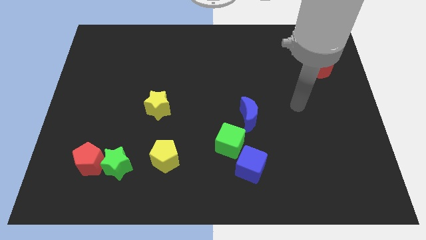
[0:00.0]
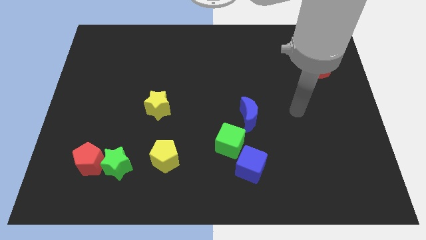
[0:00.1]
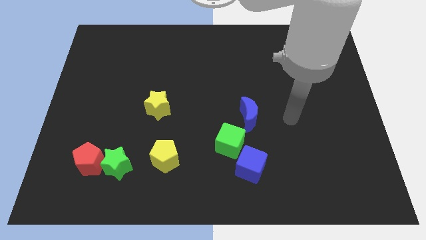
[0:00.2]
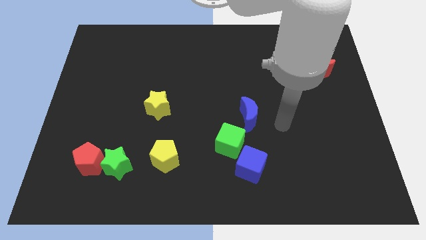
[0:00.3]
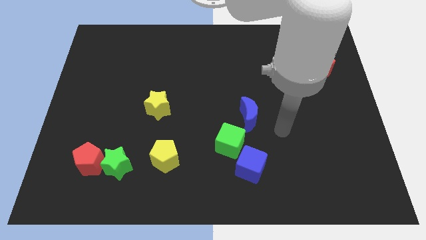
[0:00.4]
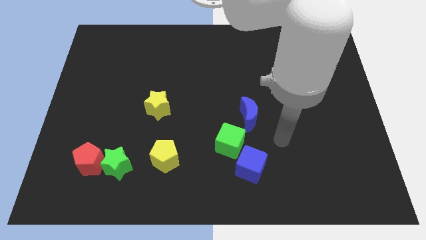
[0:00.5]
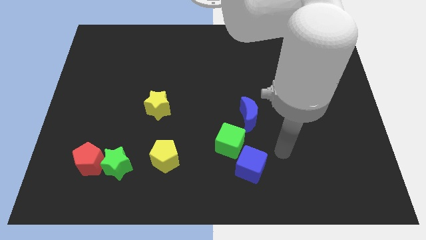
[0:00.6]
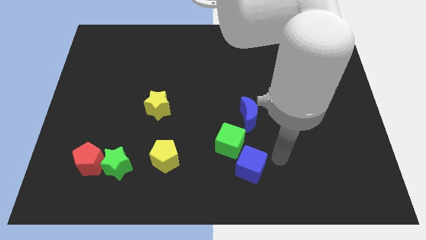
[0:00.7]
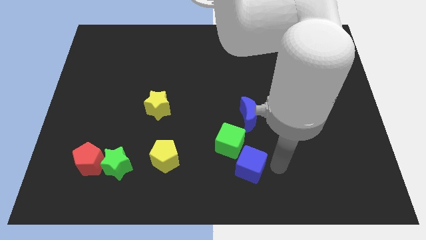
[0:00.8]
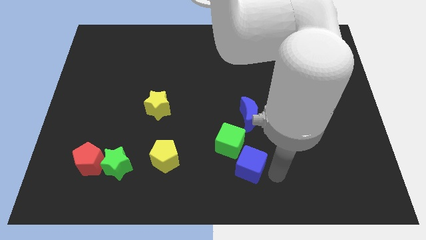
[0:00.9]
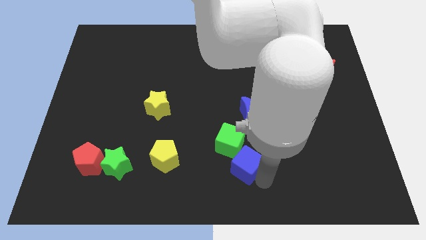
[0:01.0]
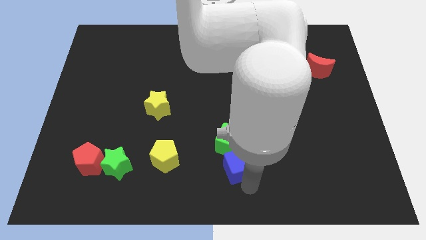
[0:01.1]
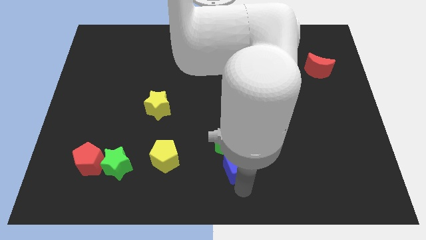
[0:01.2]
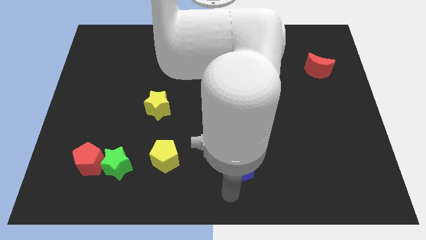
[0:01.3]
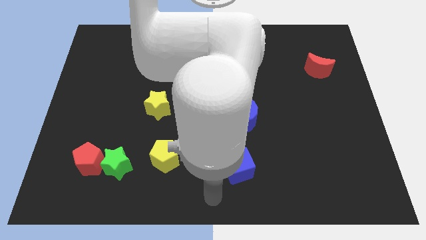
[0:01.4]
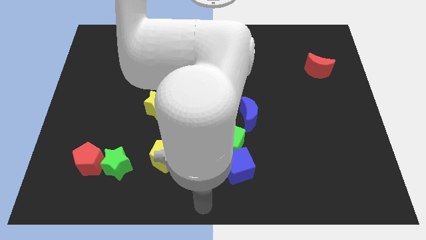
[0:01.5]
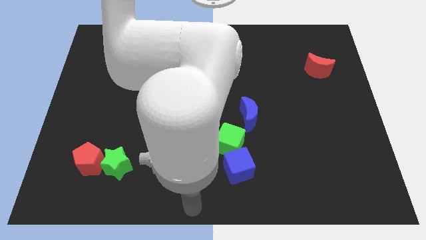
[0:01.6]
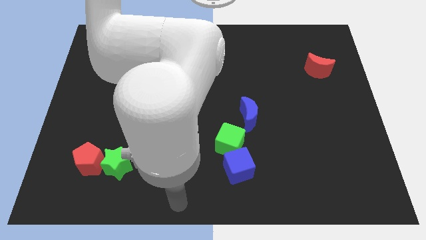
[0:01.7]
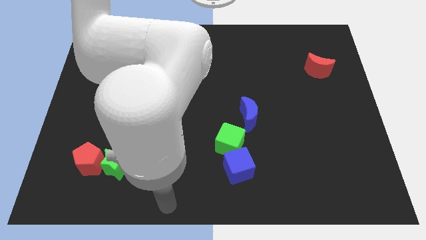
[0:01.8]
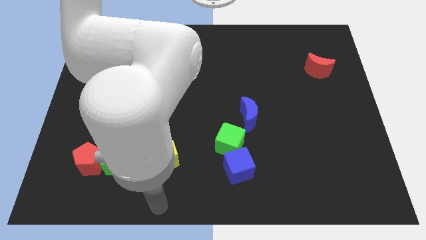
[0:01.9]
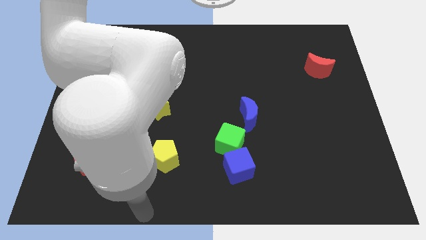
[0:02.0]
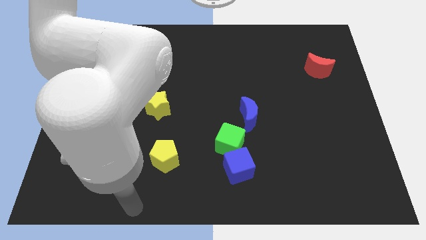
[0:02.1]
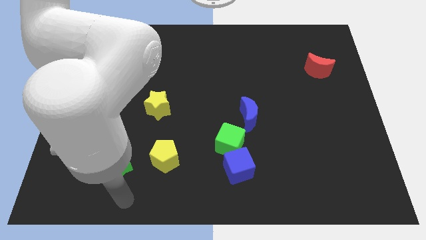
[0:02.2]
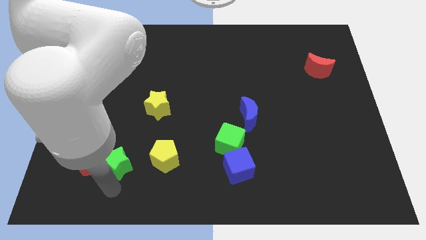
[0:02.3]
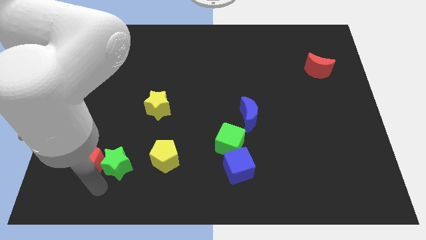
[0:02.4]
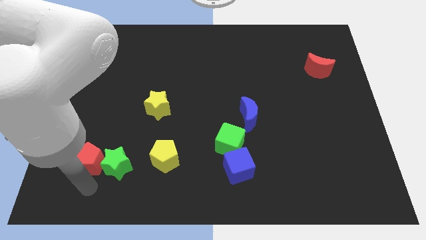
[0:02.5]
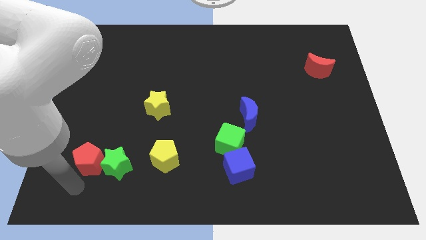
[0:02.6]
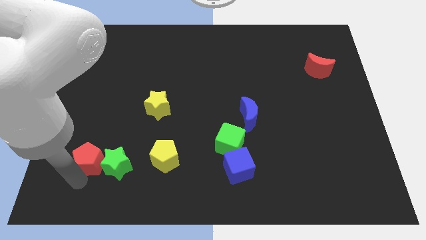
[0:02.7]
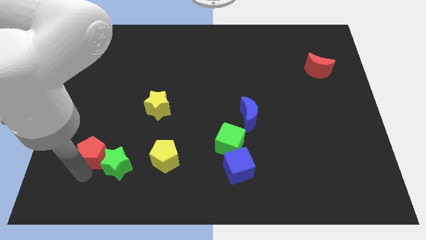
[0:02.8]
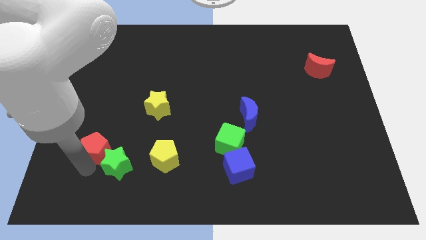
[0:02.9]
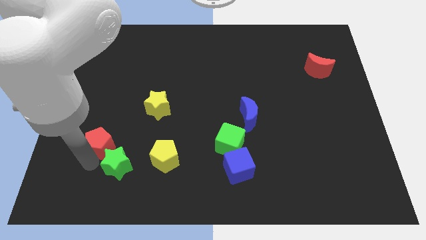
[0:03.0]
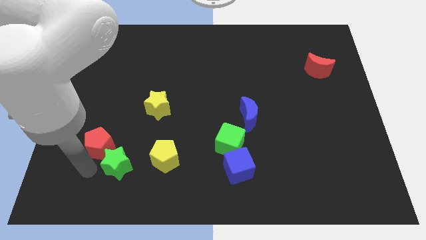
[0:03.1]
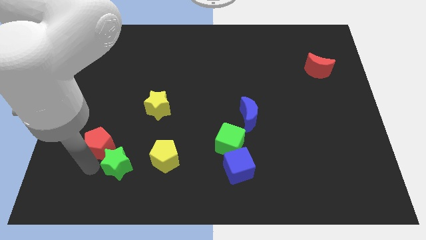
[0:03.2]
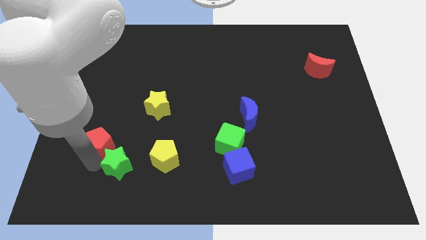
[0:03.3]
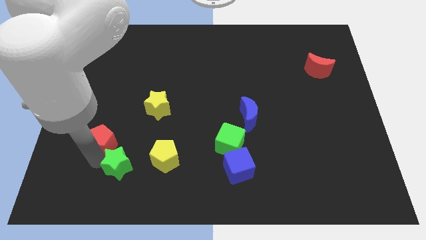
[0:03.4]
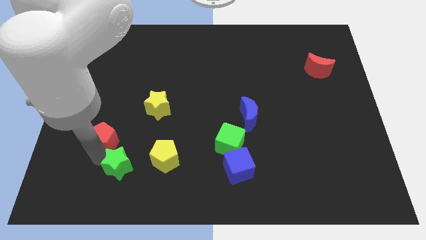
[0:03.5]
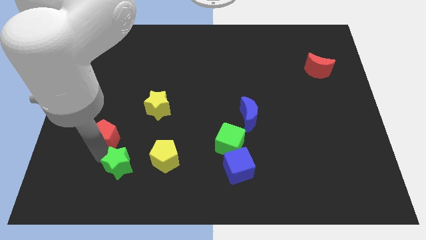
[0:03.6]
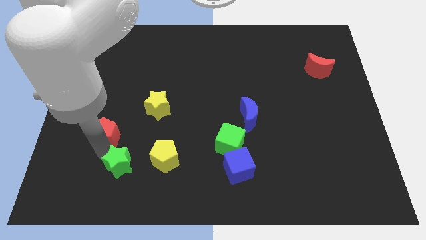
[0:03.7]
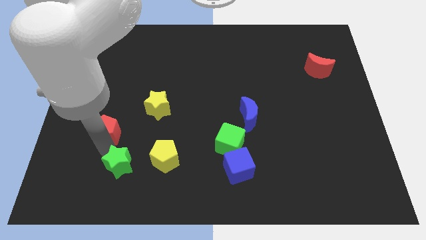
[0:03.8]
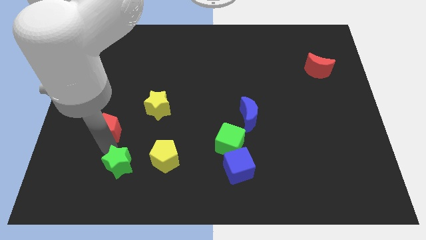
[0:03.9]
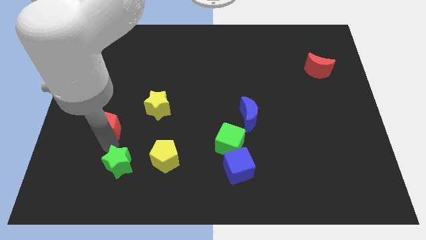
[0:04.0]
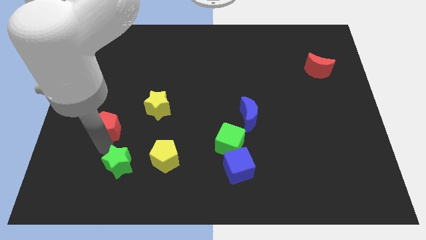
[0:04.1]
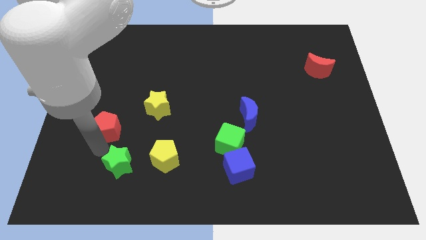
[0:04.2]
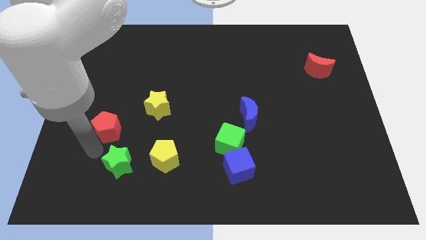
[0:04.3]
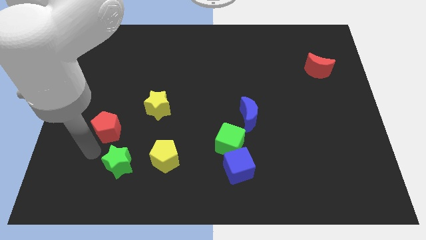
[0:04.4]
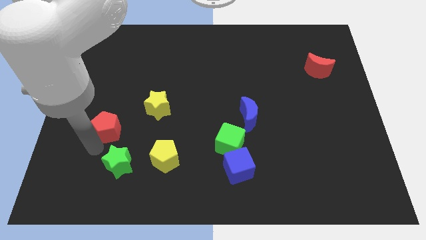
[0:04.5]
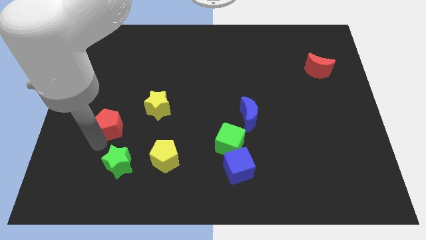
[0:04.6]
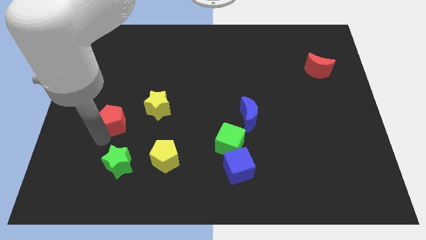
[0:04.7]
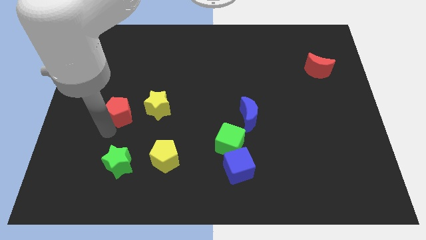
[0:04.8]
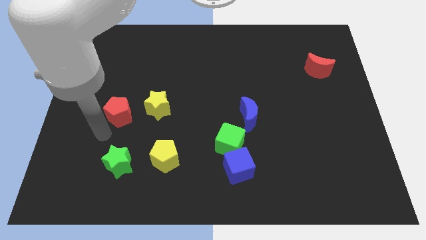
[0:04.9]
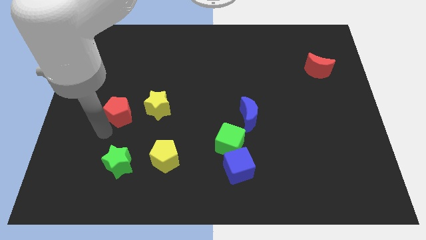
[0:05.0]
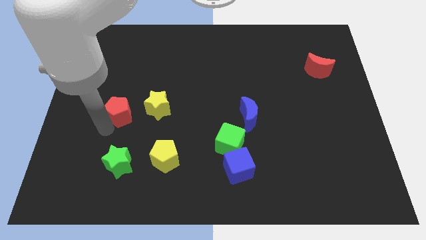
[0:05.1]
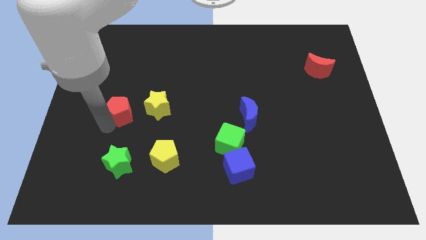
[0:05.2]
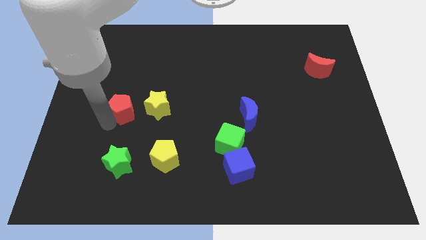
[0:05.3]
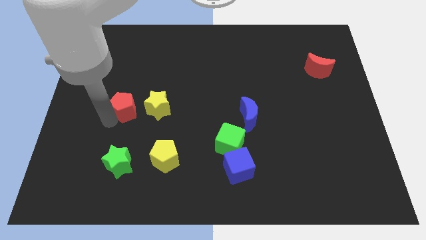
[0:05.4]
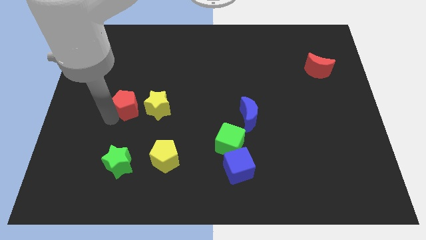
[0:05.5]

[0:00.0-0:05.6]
move the red pentagon to the top left side of the yellow star

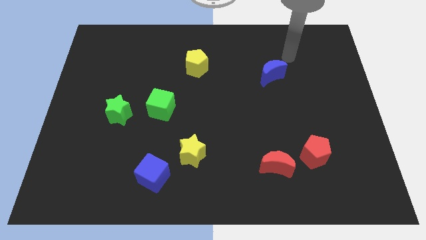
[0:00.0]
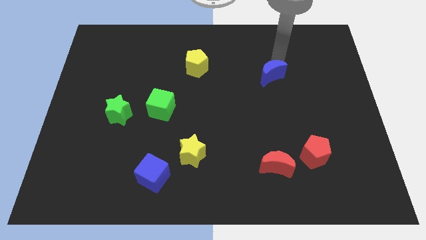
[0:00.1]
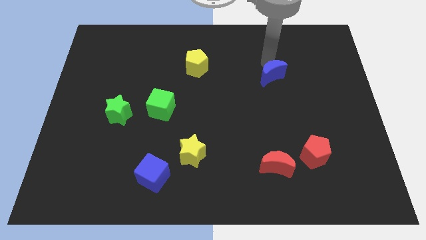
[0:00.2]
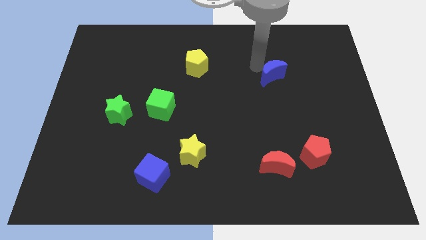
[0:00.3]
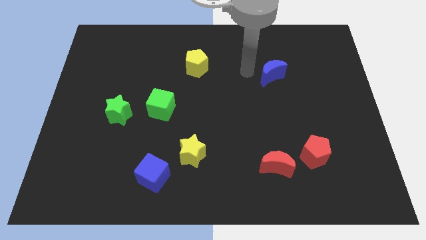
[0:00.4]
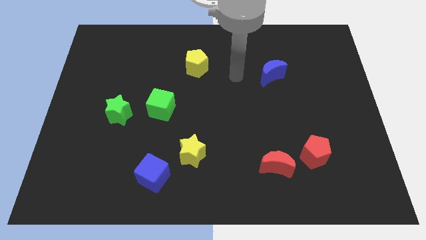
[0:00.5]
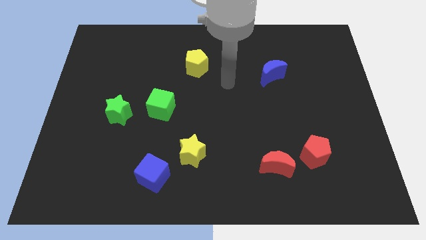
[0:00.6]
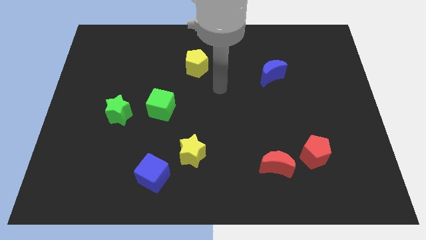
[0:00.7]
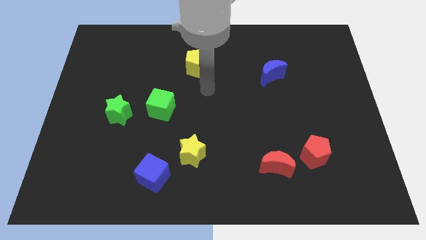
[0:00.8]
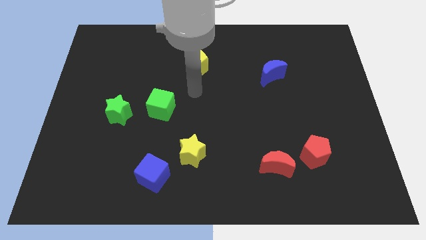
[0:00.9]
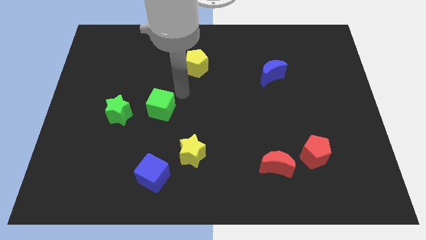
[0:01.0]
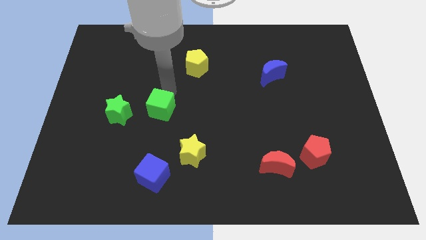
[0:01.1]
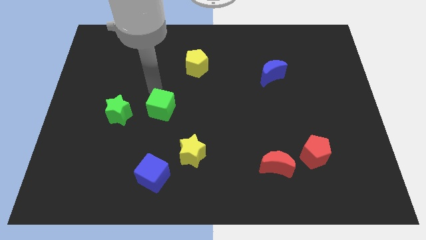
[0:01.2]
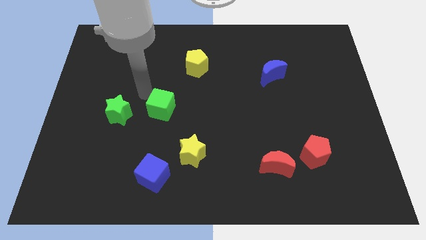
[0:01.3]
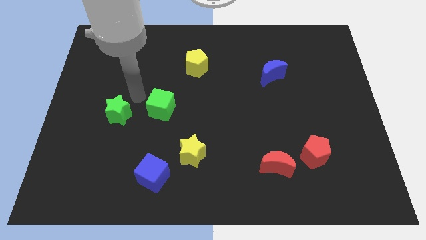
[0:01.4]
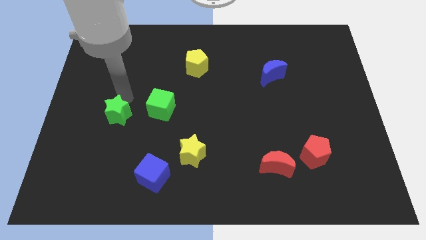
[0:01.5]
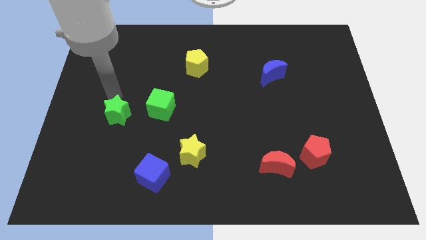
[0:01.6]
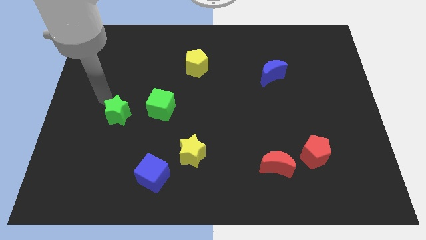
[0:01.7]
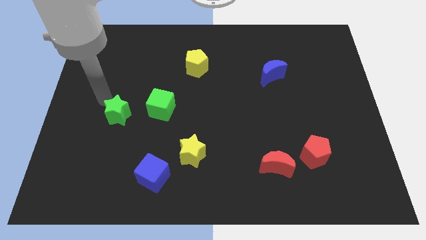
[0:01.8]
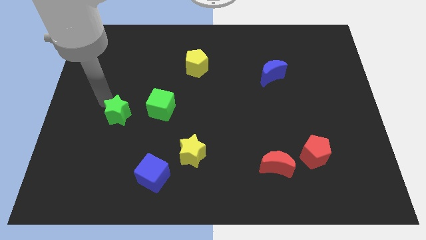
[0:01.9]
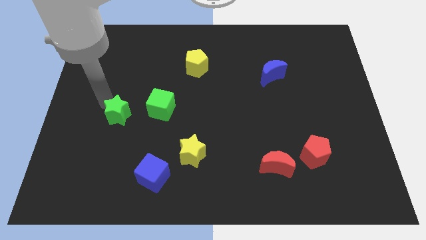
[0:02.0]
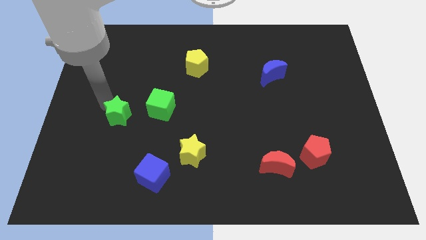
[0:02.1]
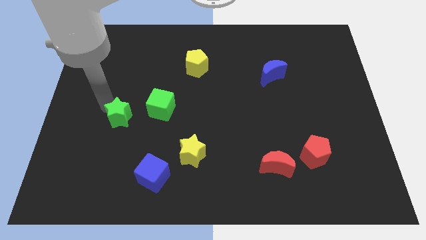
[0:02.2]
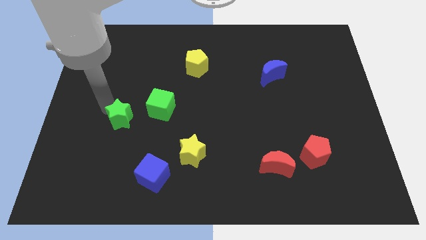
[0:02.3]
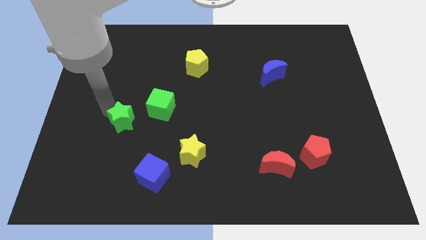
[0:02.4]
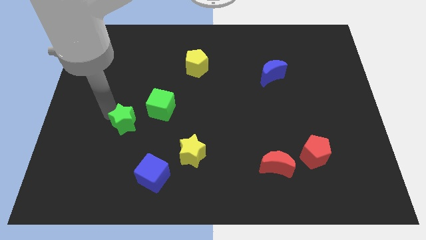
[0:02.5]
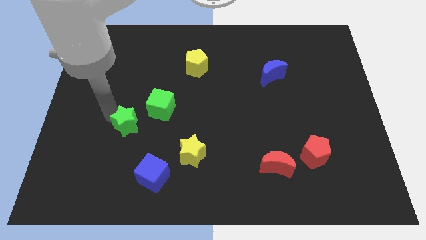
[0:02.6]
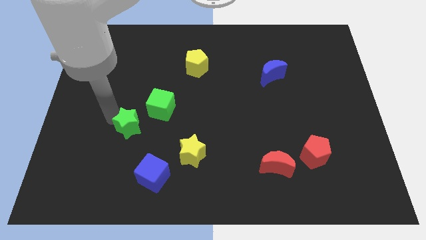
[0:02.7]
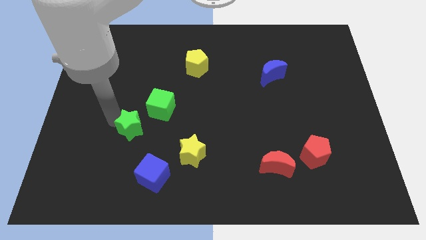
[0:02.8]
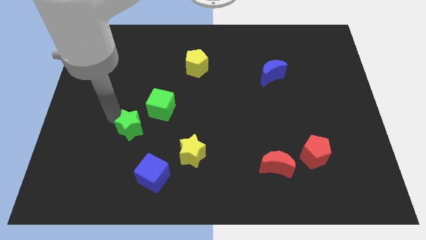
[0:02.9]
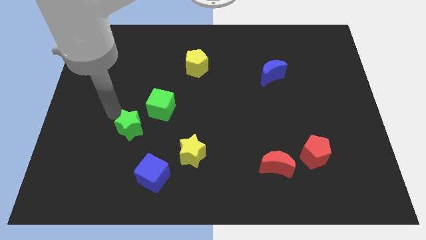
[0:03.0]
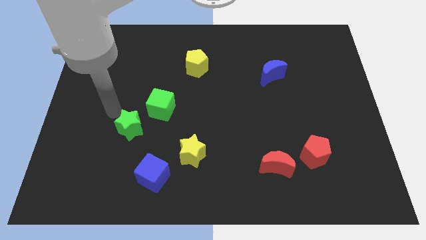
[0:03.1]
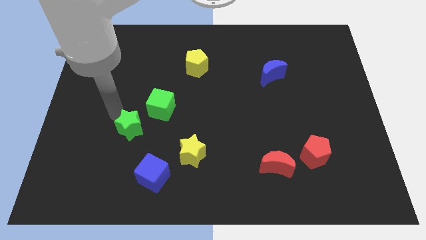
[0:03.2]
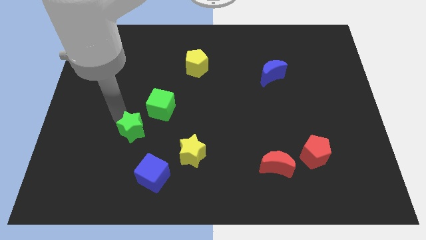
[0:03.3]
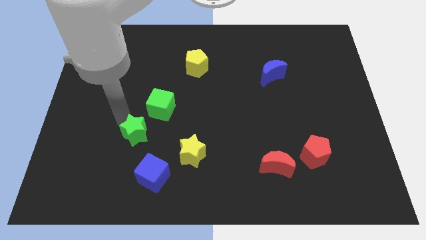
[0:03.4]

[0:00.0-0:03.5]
push the green star below the green cube
